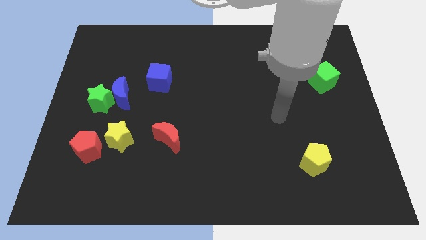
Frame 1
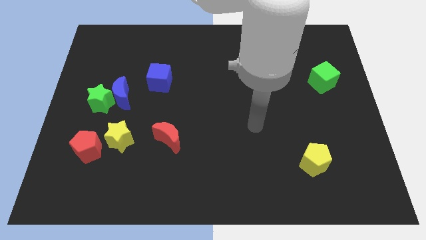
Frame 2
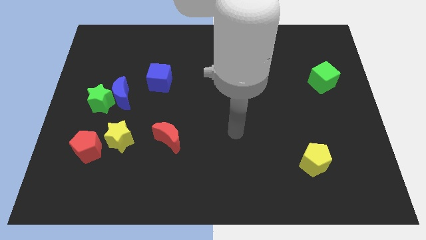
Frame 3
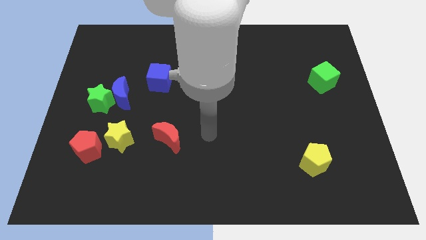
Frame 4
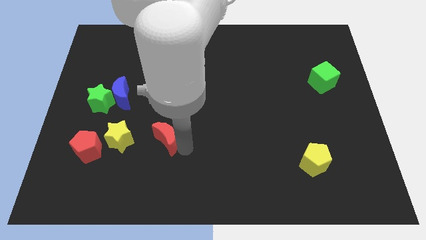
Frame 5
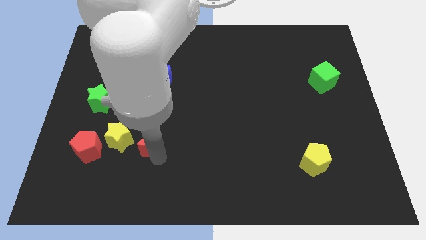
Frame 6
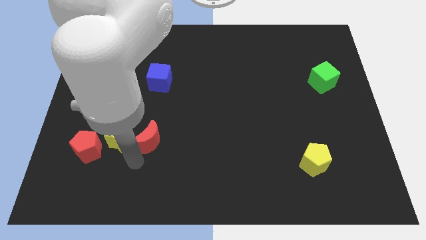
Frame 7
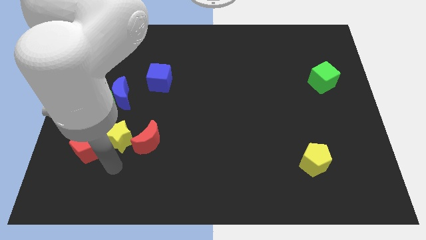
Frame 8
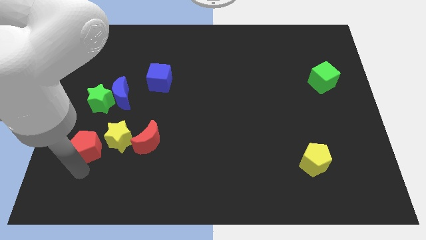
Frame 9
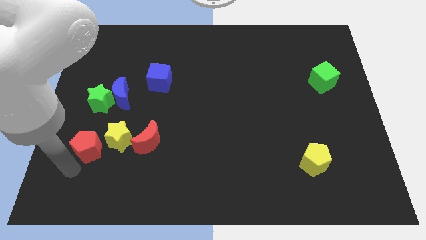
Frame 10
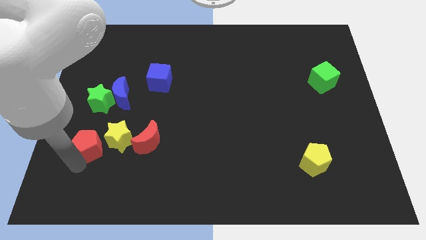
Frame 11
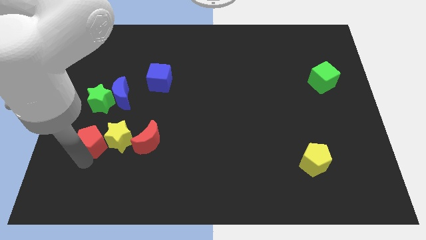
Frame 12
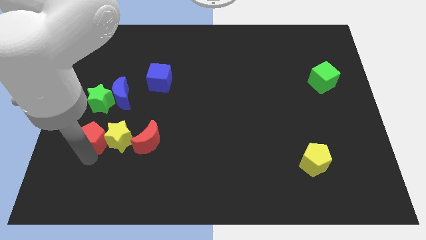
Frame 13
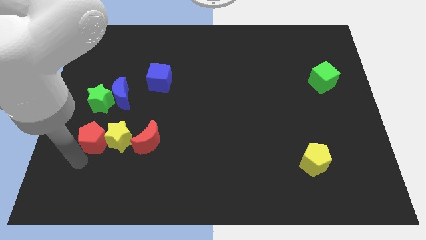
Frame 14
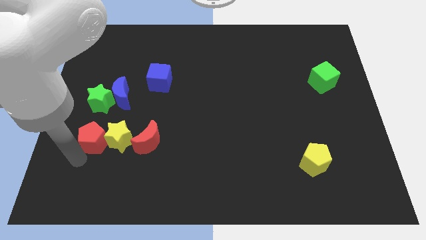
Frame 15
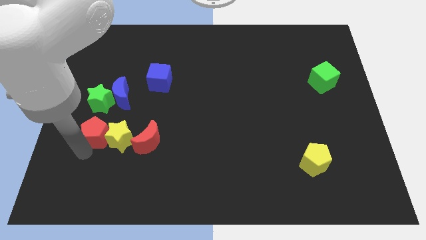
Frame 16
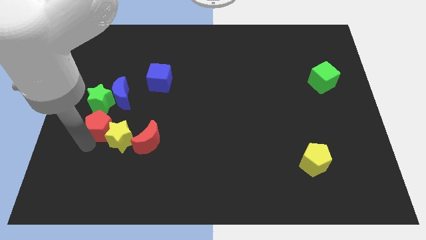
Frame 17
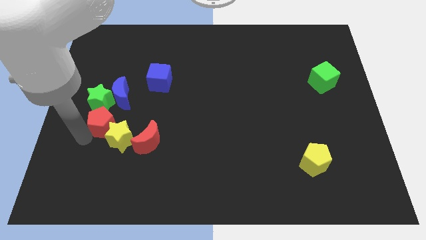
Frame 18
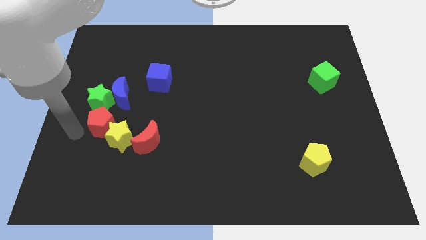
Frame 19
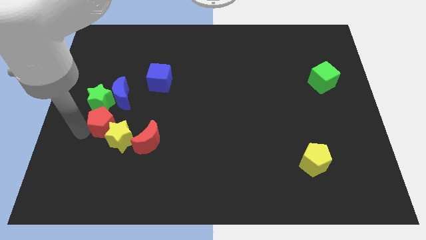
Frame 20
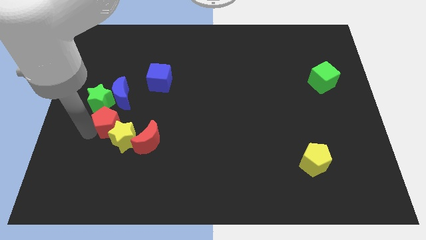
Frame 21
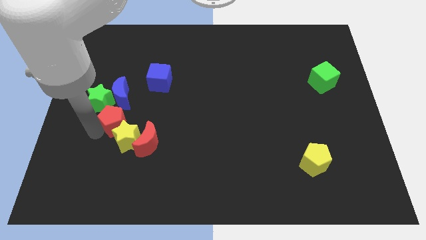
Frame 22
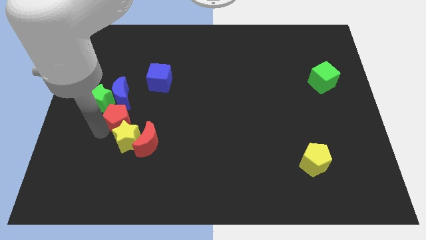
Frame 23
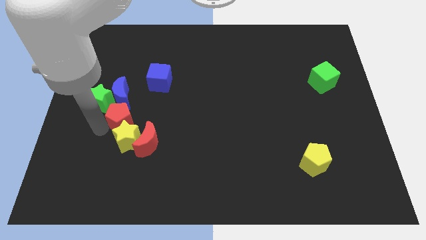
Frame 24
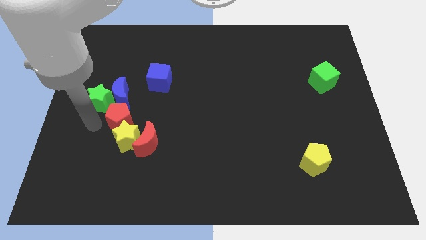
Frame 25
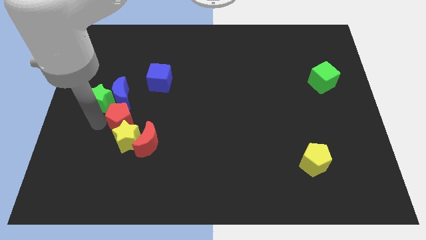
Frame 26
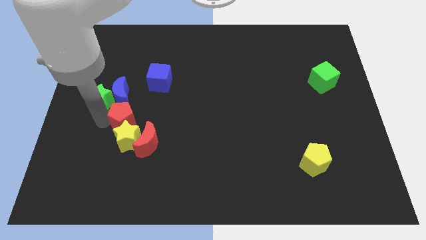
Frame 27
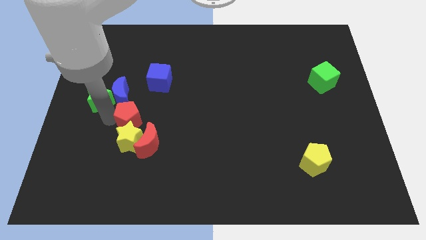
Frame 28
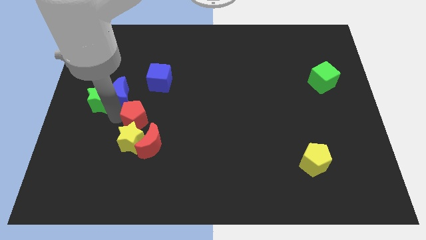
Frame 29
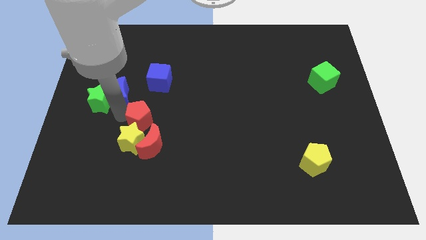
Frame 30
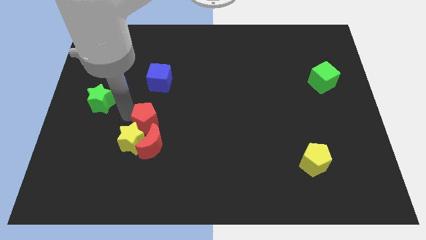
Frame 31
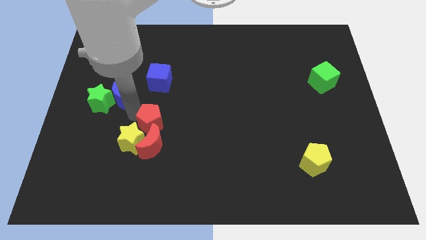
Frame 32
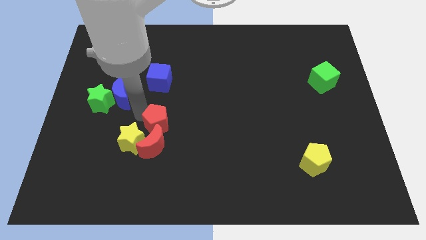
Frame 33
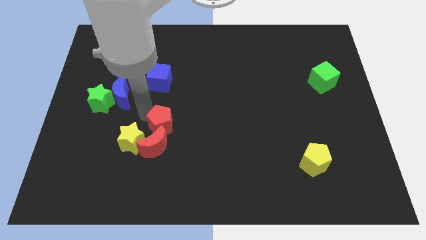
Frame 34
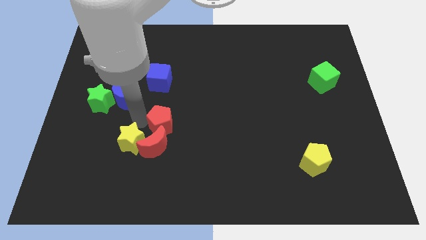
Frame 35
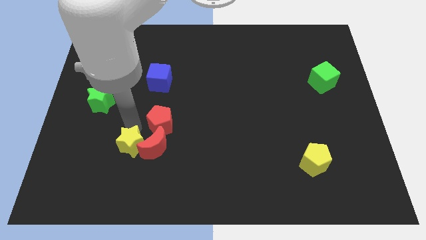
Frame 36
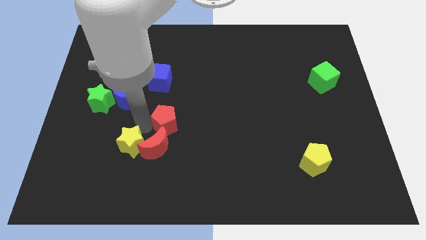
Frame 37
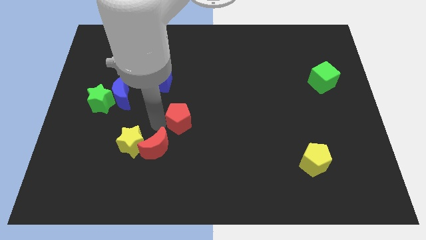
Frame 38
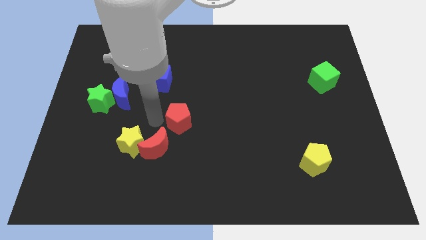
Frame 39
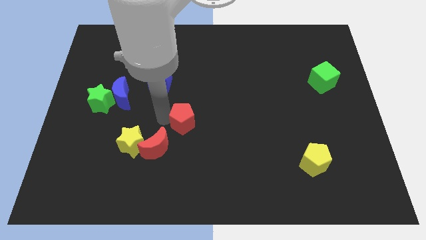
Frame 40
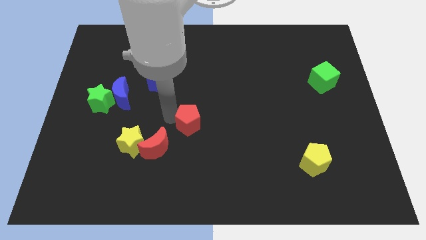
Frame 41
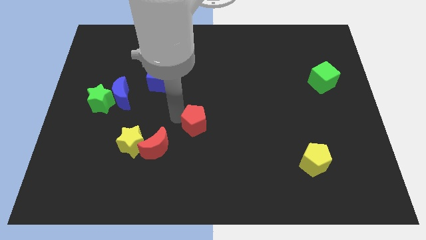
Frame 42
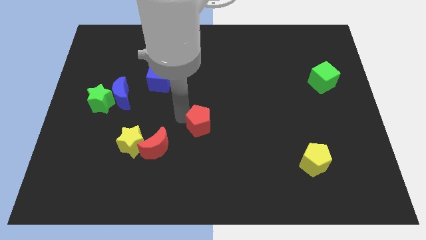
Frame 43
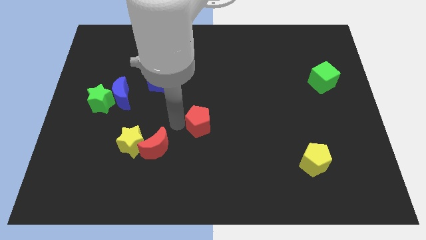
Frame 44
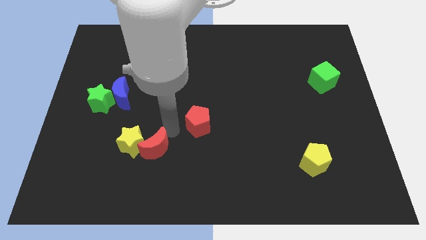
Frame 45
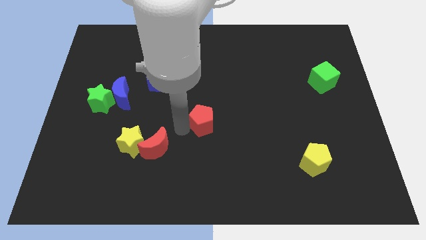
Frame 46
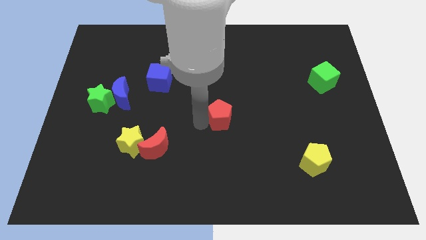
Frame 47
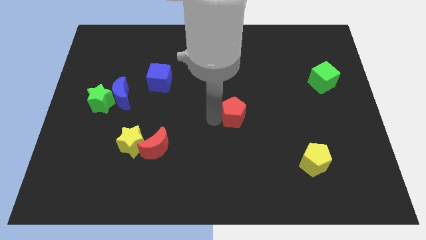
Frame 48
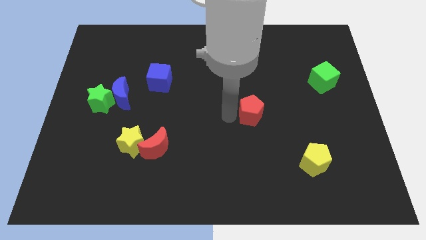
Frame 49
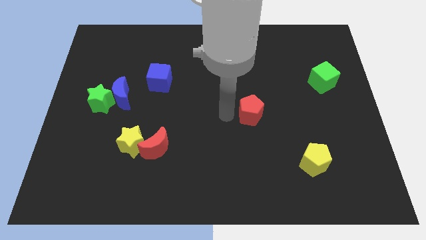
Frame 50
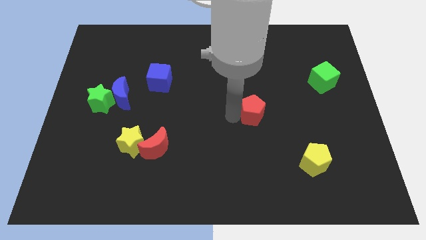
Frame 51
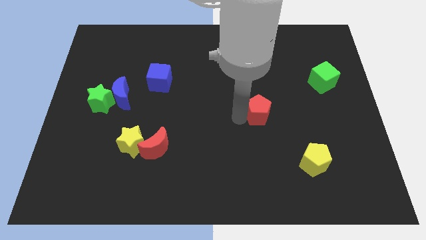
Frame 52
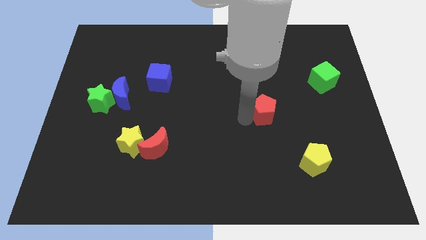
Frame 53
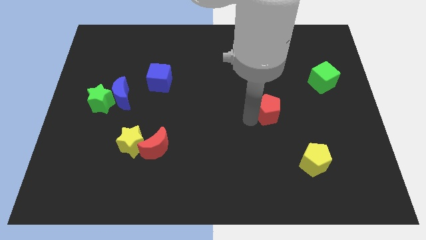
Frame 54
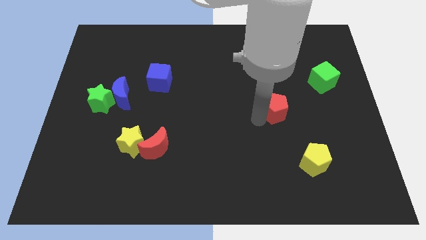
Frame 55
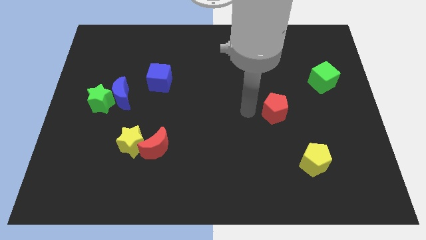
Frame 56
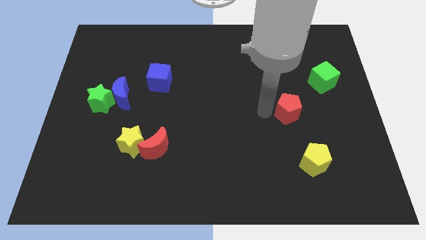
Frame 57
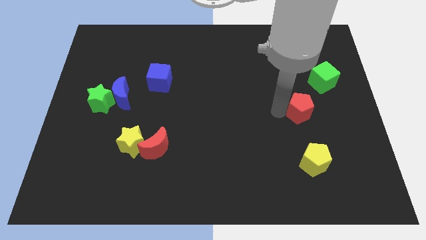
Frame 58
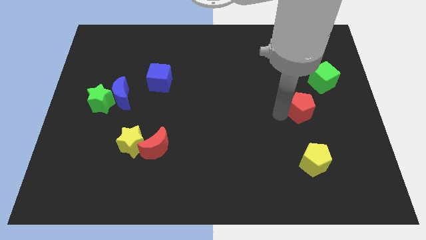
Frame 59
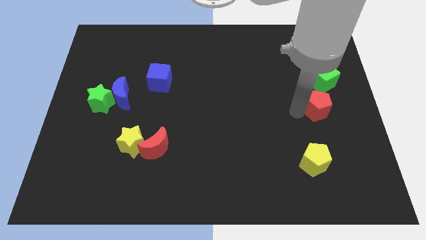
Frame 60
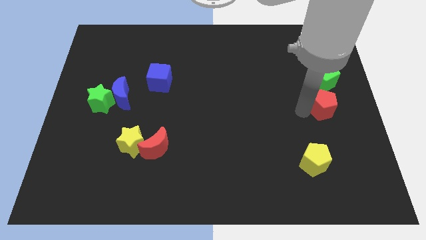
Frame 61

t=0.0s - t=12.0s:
put the red pentagon to the right side

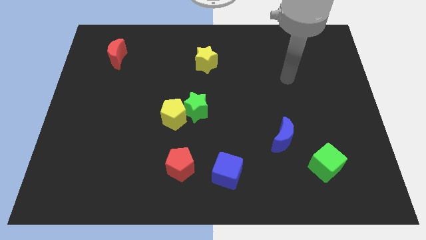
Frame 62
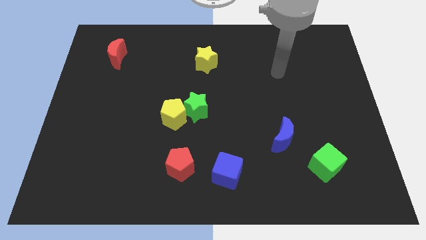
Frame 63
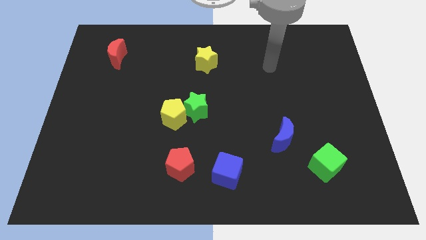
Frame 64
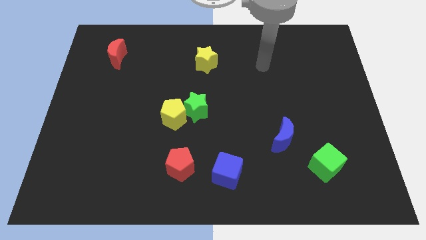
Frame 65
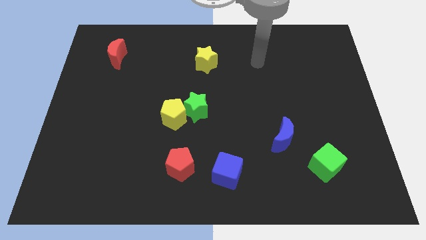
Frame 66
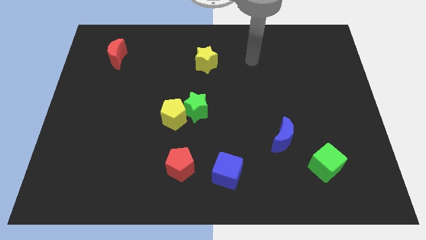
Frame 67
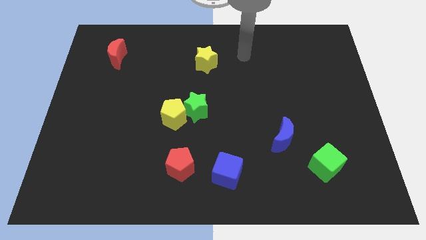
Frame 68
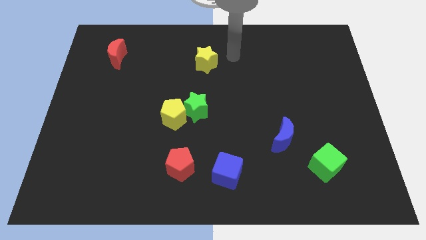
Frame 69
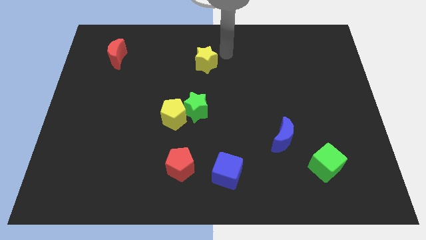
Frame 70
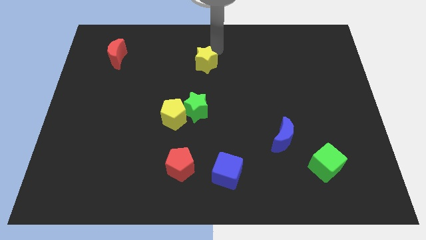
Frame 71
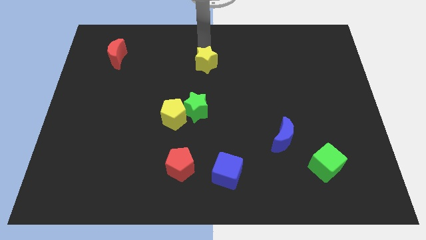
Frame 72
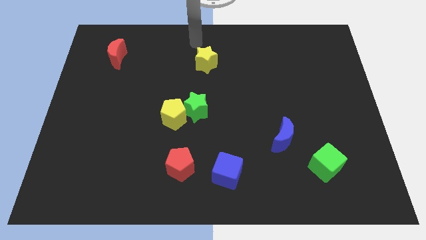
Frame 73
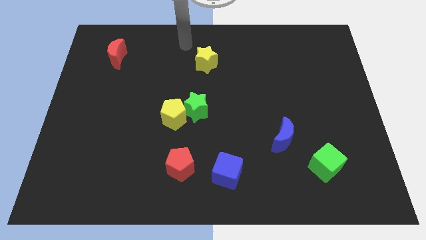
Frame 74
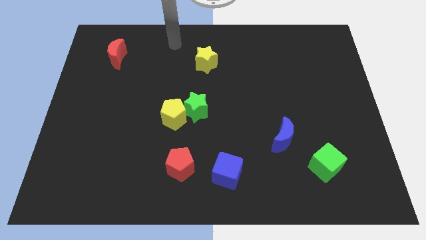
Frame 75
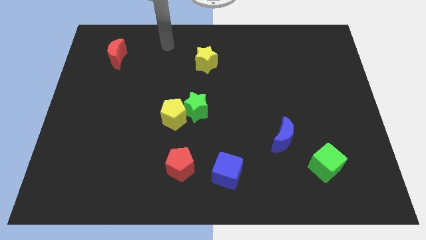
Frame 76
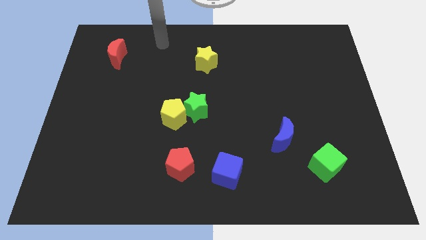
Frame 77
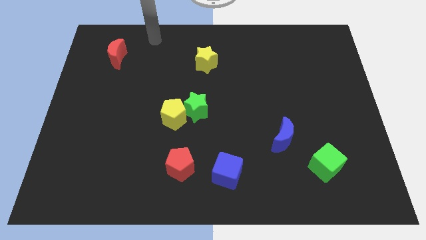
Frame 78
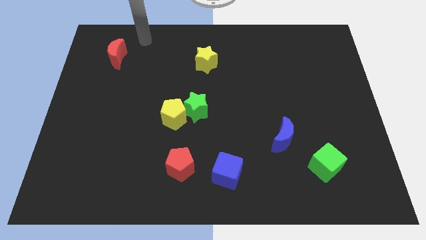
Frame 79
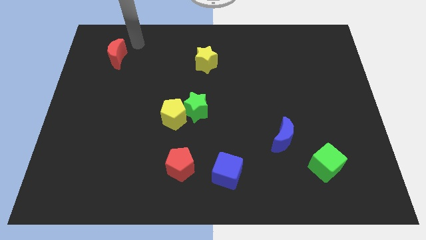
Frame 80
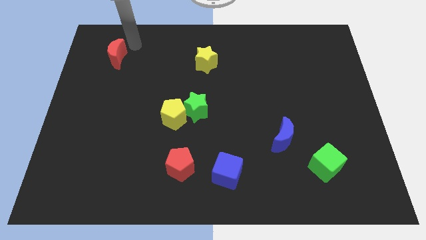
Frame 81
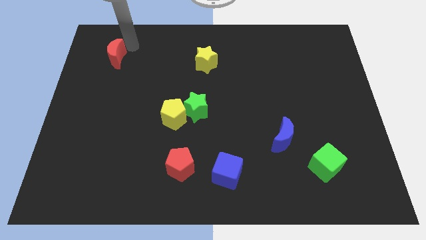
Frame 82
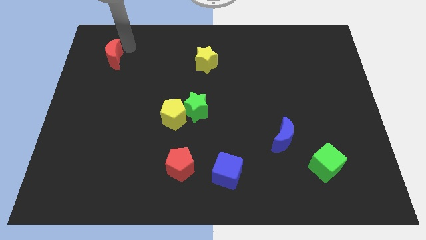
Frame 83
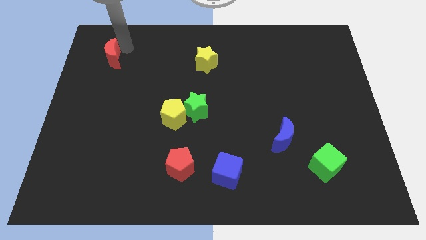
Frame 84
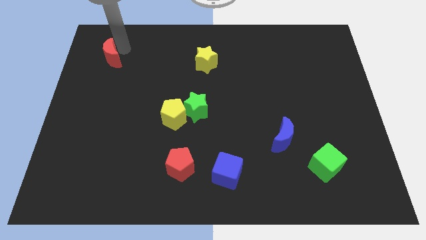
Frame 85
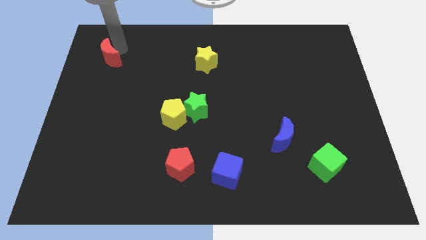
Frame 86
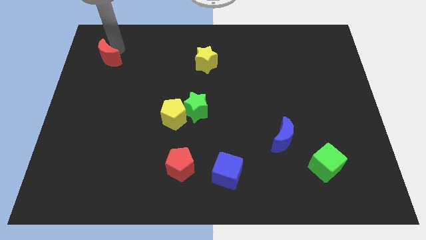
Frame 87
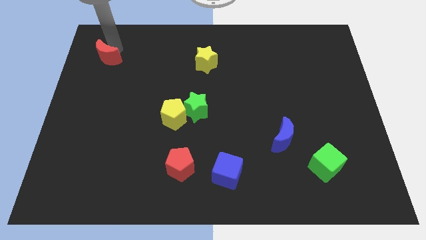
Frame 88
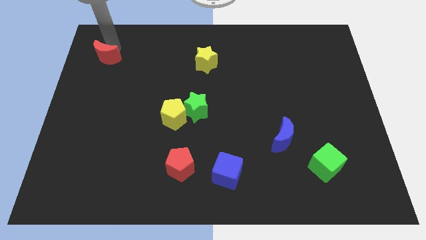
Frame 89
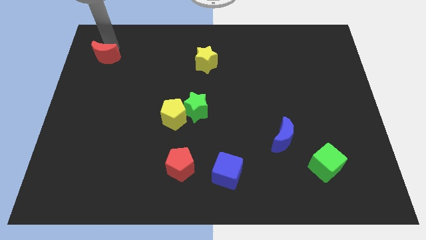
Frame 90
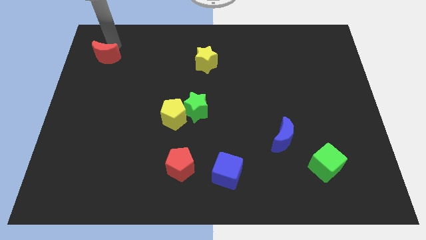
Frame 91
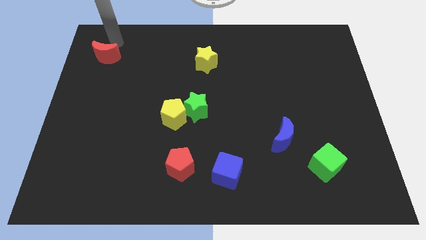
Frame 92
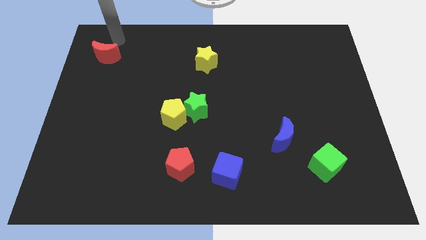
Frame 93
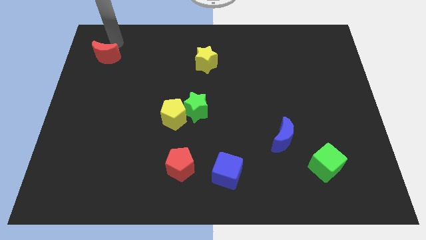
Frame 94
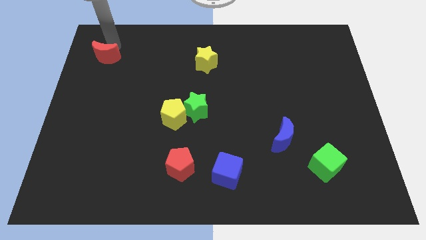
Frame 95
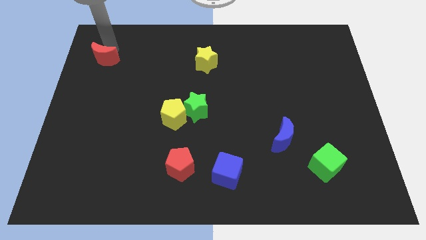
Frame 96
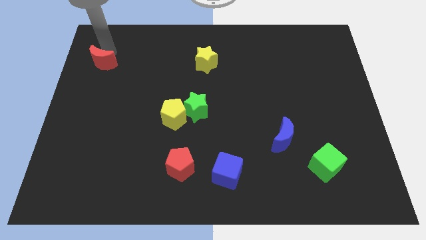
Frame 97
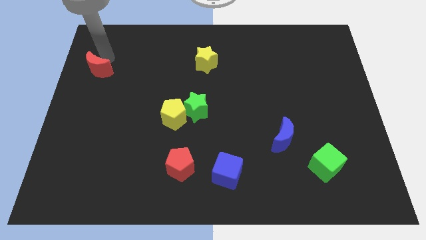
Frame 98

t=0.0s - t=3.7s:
slide the red moon to the center left
